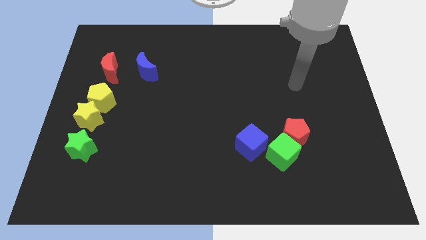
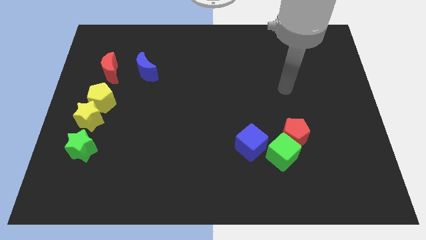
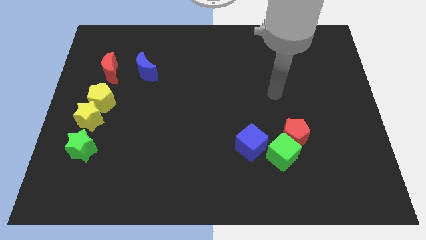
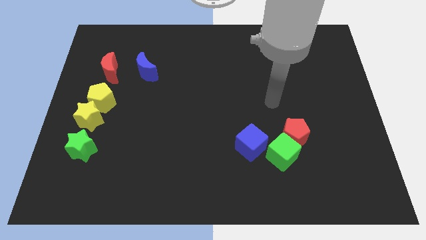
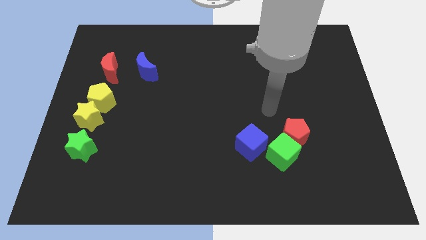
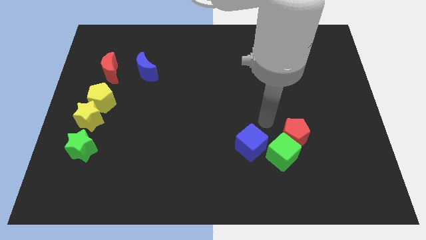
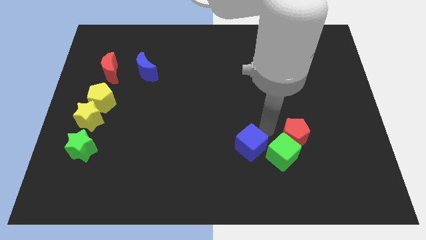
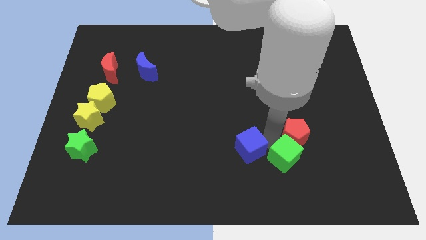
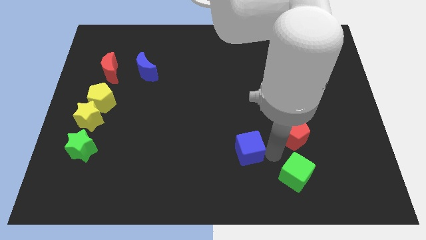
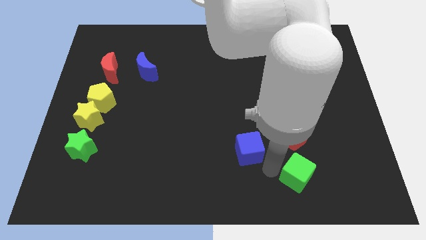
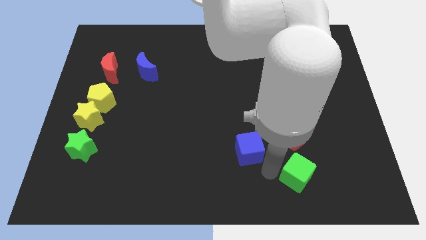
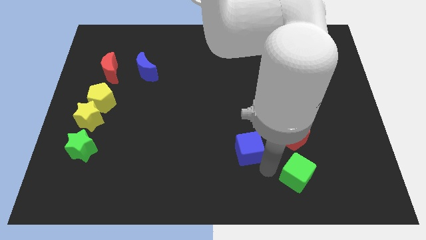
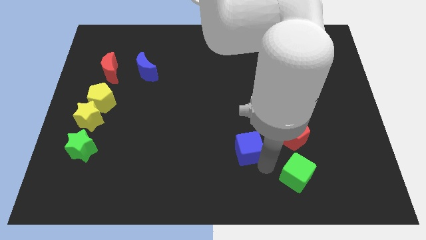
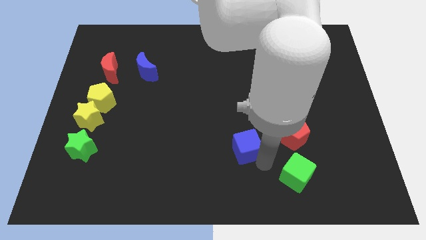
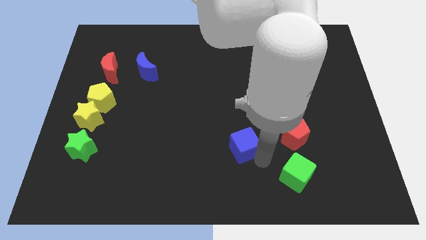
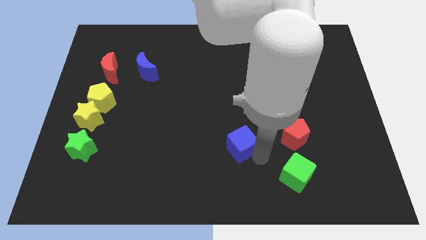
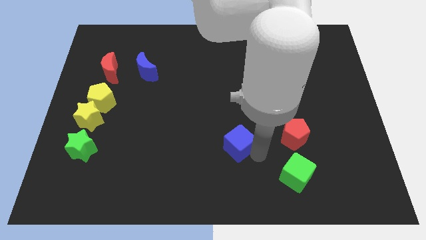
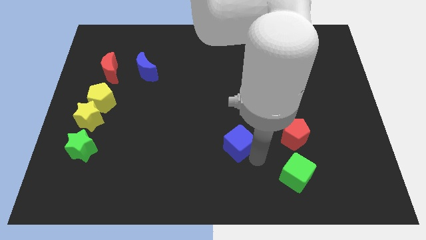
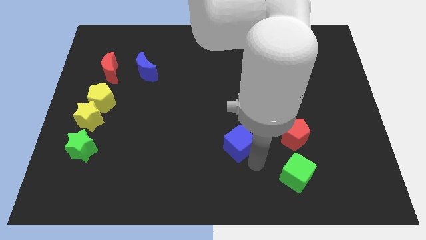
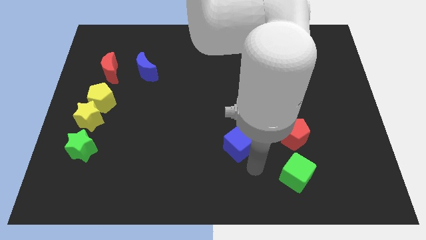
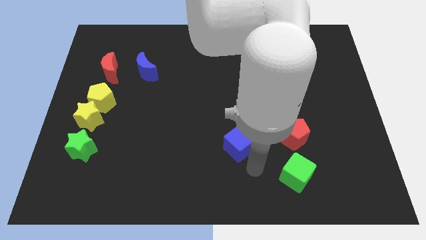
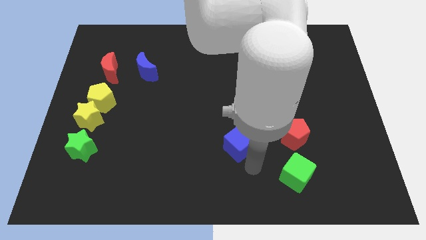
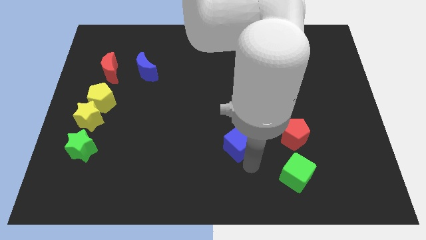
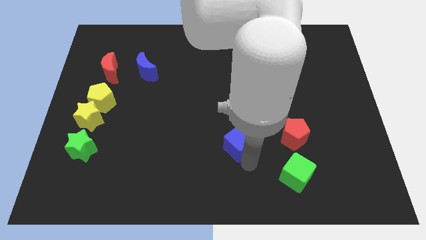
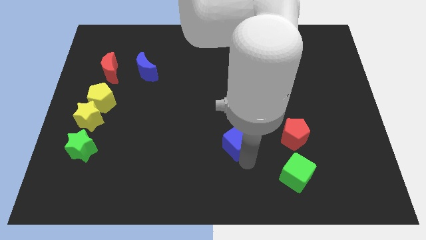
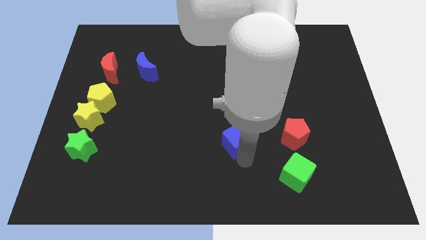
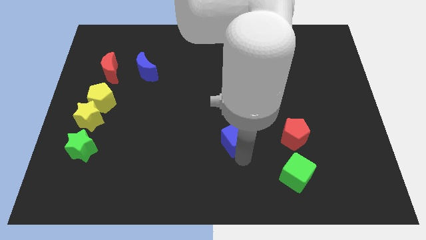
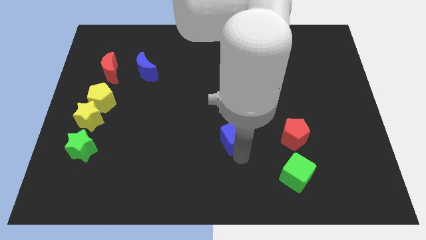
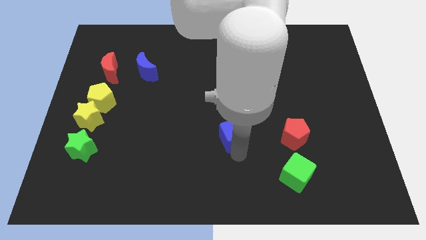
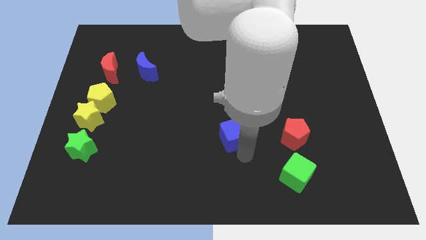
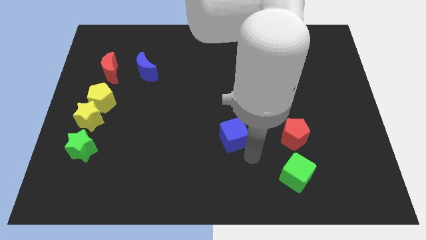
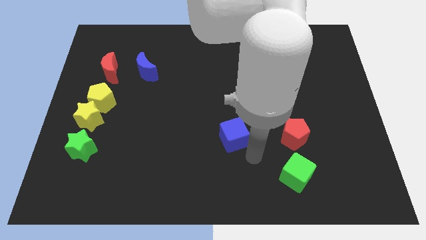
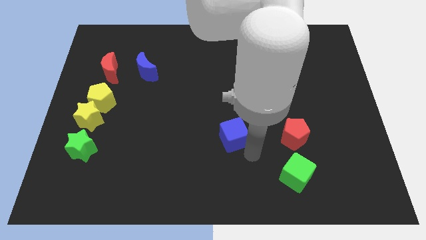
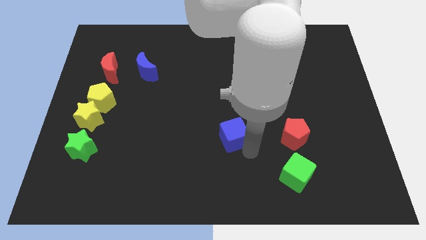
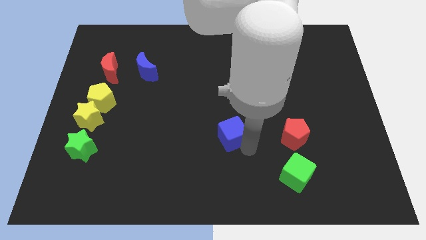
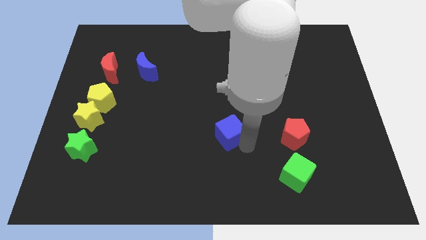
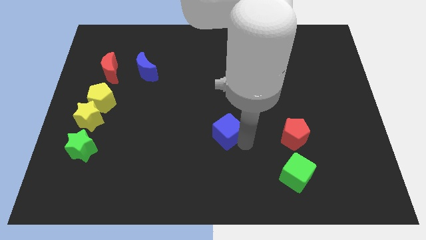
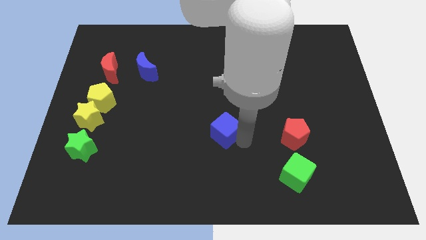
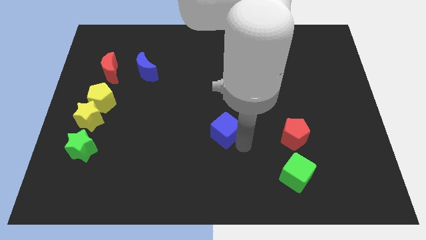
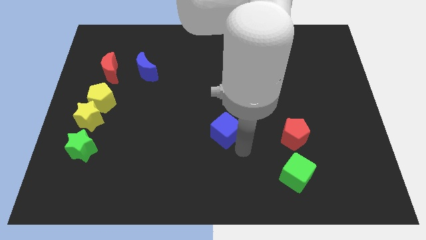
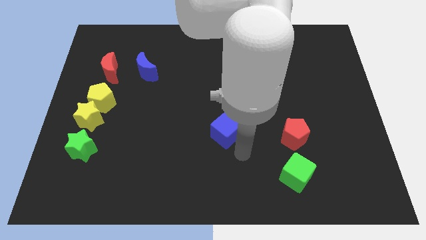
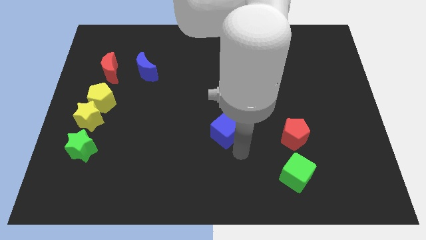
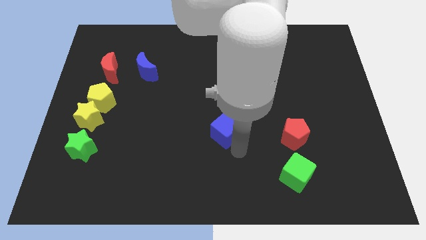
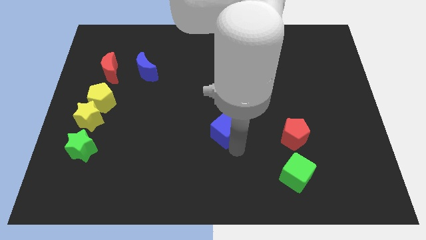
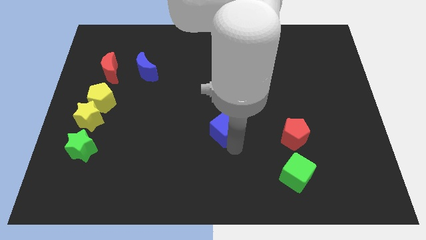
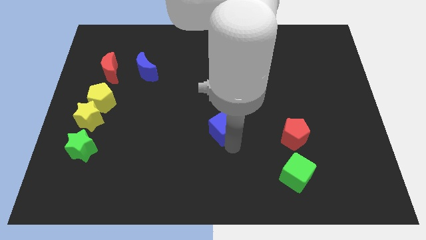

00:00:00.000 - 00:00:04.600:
push the blue cube a little bit diagonally upwards and left

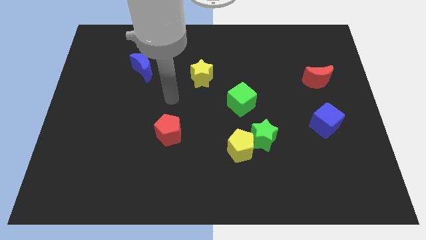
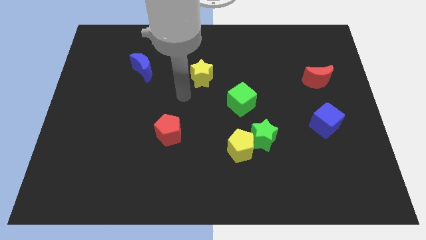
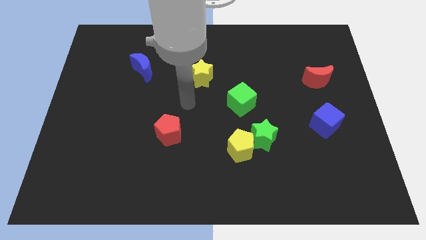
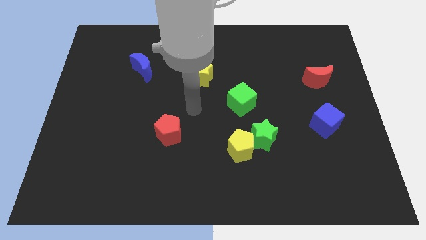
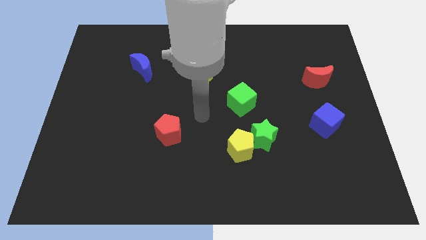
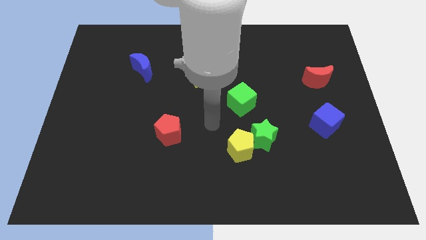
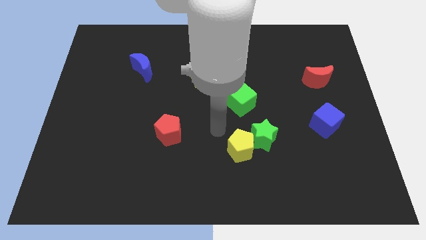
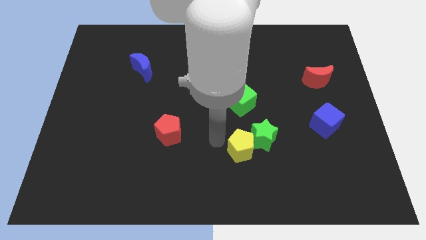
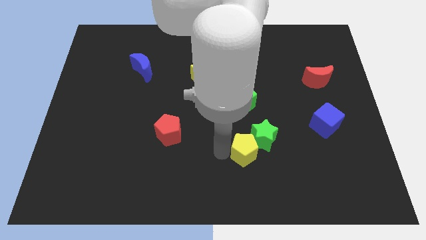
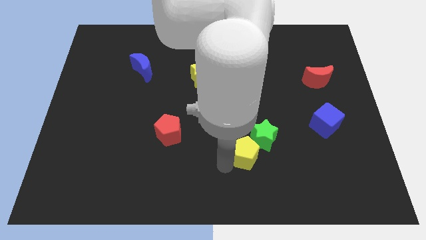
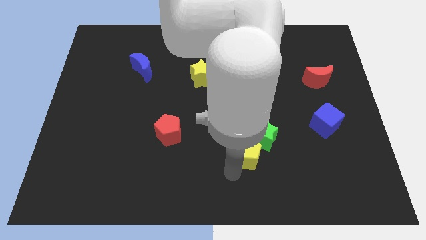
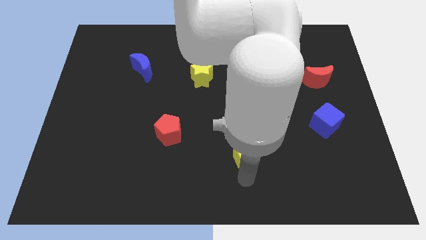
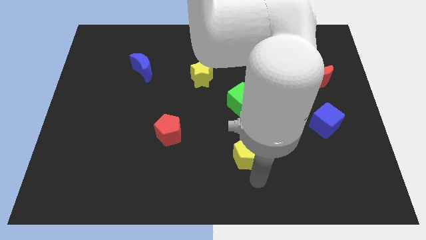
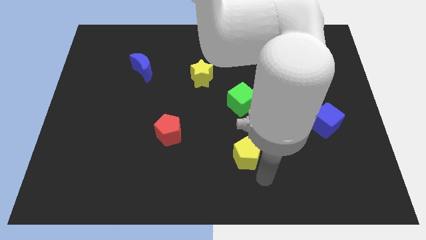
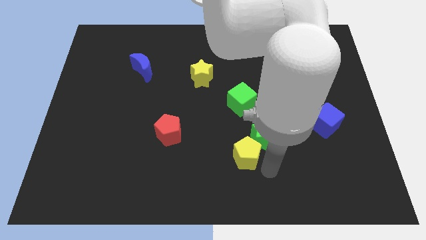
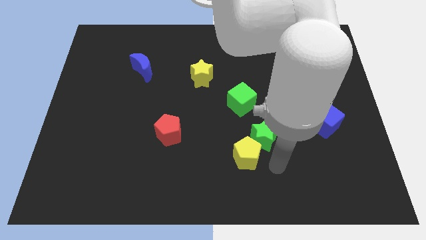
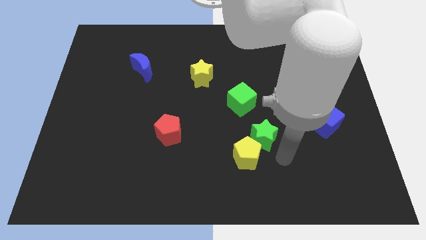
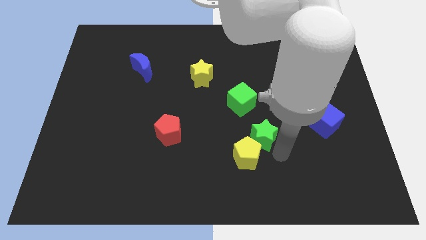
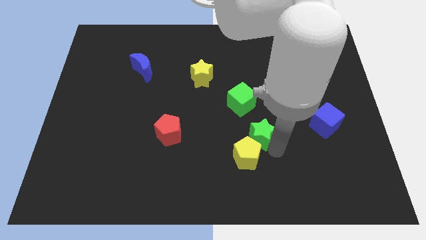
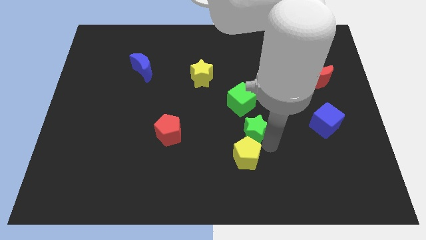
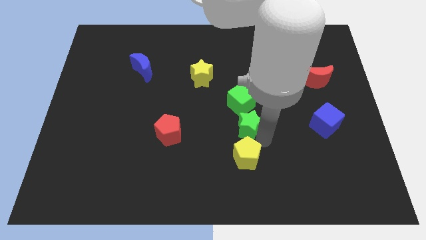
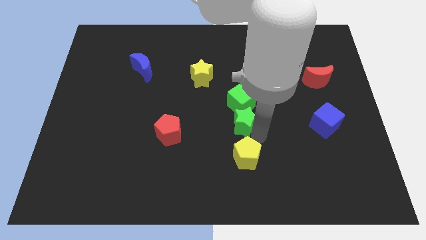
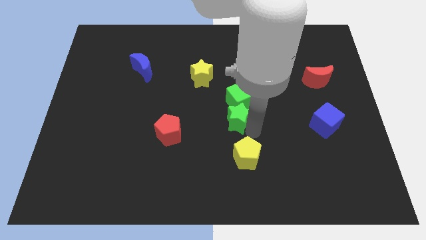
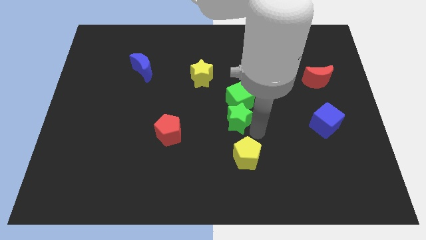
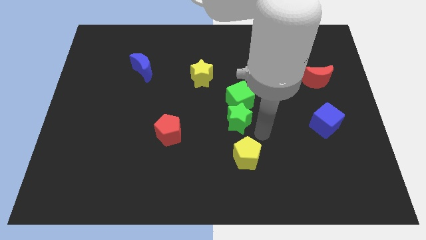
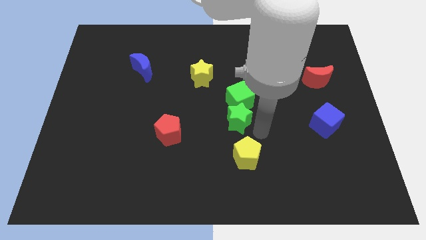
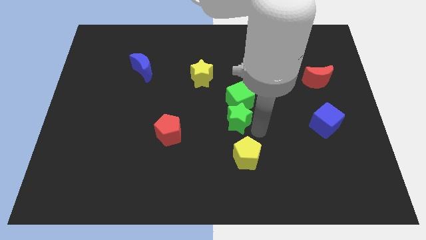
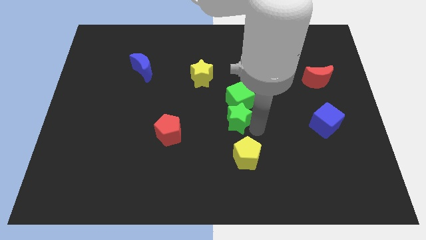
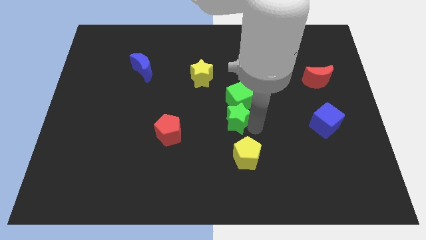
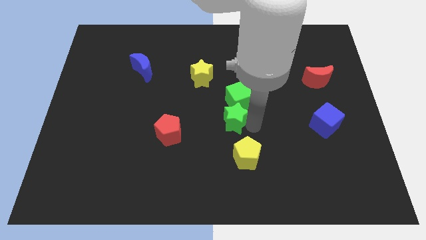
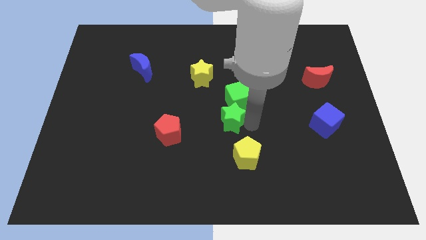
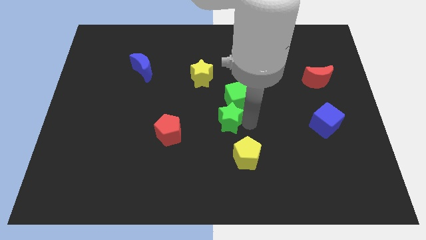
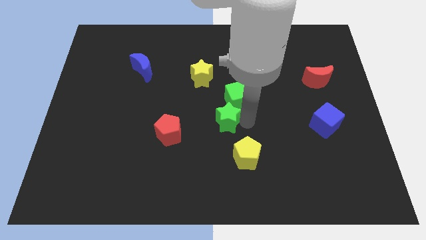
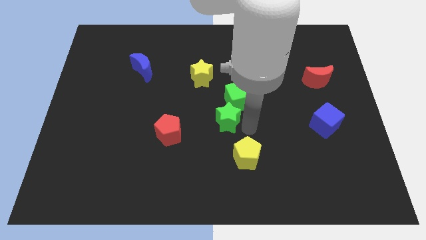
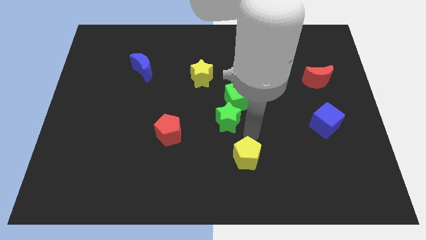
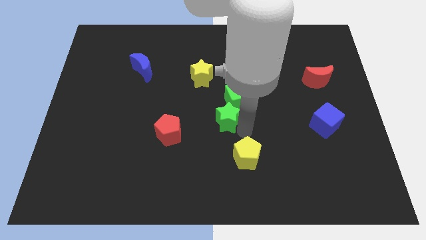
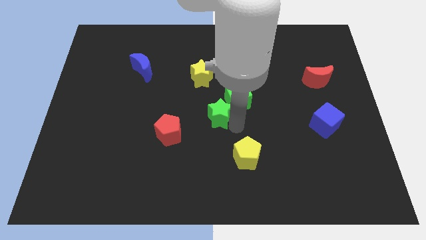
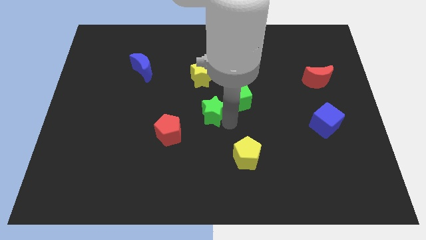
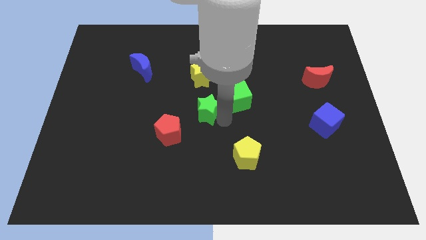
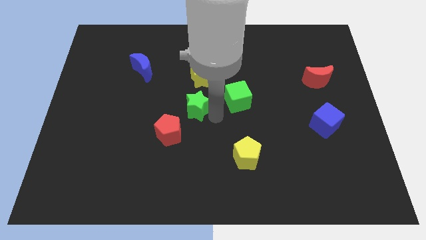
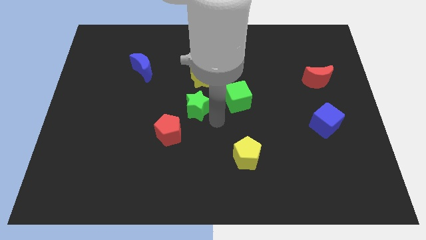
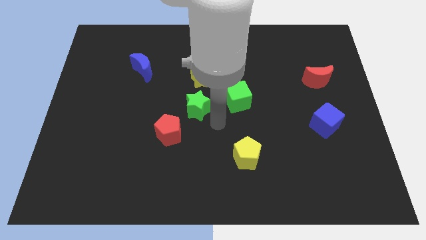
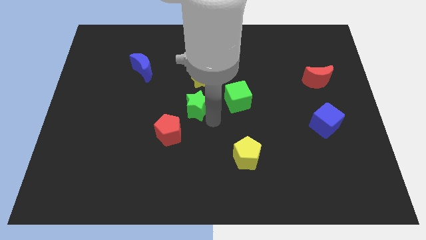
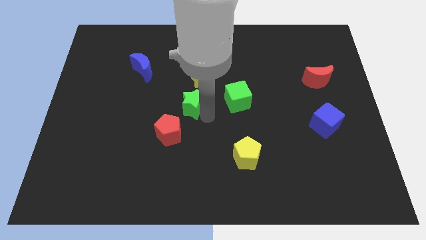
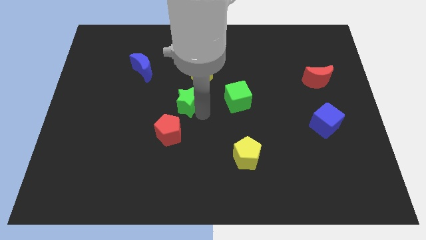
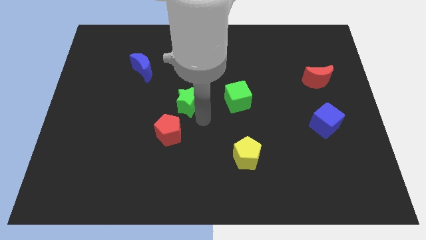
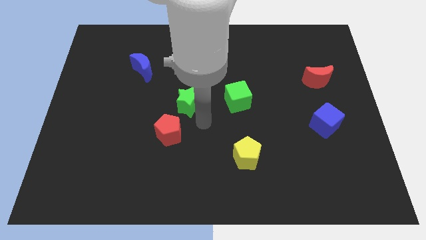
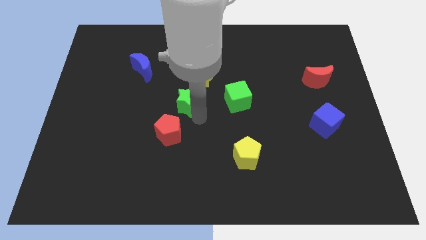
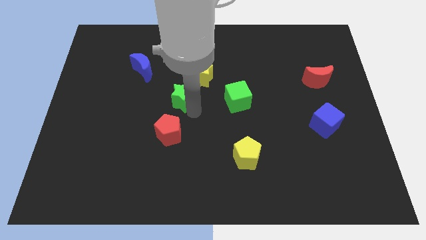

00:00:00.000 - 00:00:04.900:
move the green star up and to the left
